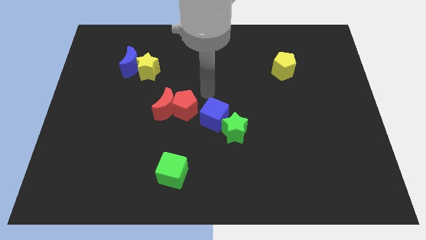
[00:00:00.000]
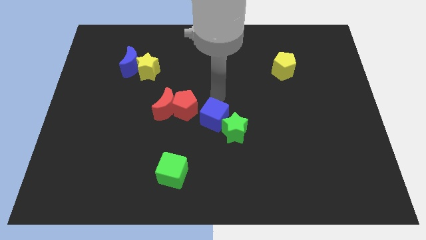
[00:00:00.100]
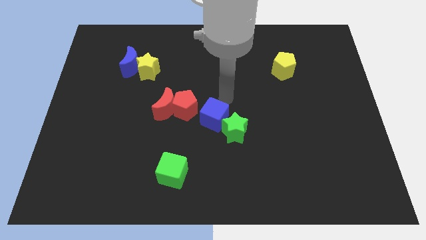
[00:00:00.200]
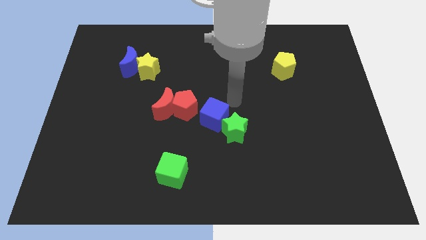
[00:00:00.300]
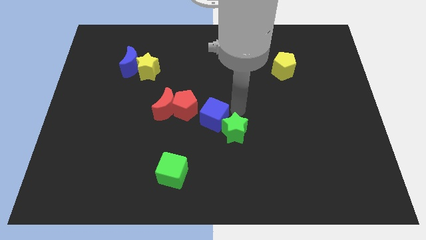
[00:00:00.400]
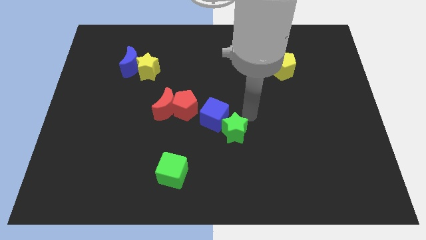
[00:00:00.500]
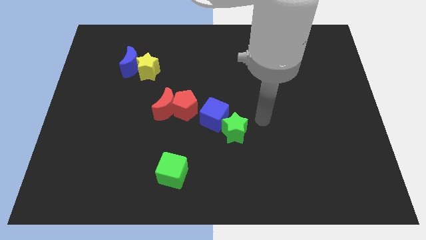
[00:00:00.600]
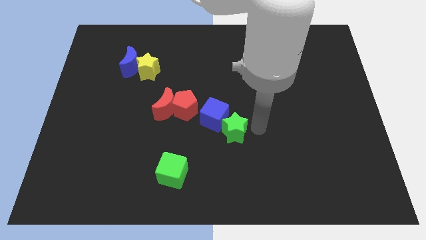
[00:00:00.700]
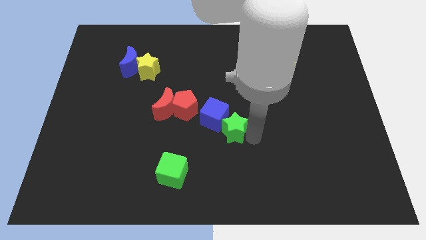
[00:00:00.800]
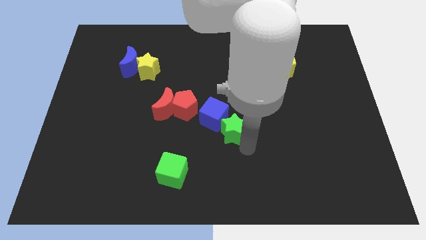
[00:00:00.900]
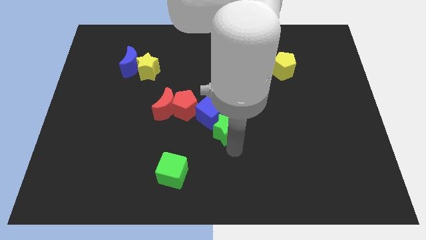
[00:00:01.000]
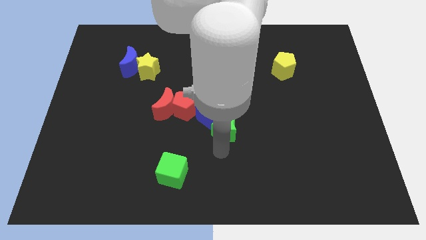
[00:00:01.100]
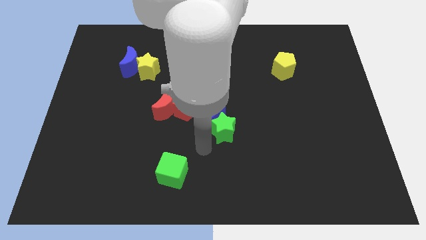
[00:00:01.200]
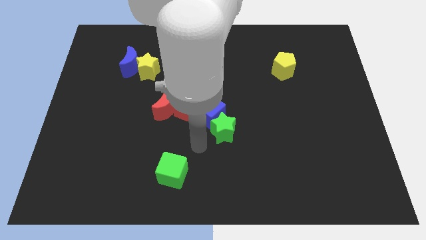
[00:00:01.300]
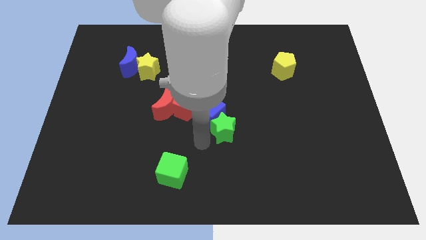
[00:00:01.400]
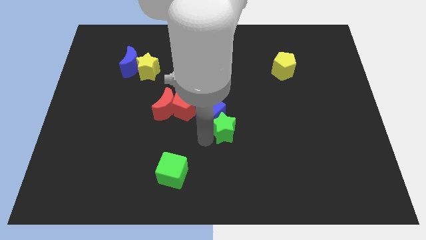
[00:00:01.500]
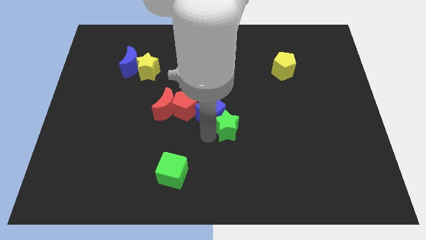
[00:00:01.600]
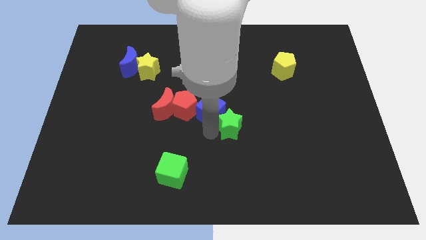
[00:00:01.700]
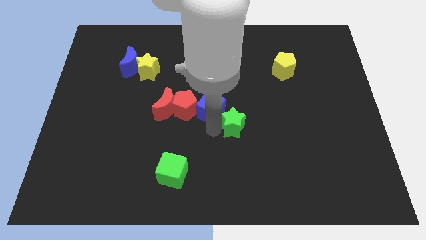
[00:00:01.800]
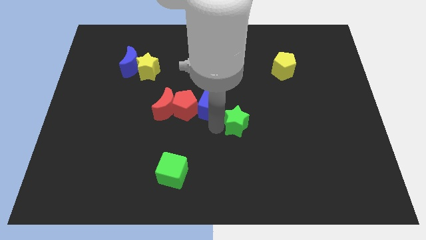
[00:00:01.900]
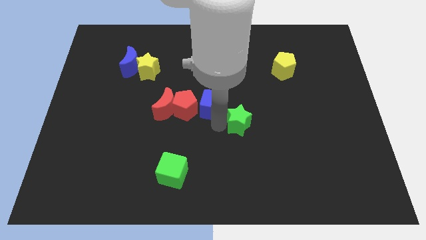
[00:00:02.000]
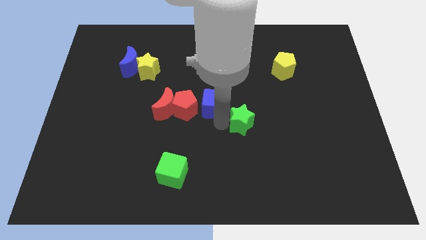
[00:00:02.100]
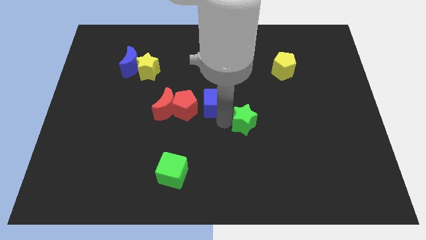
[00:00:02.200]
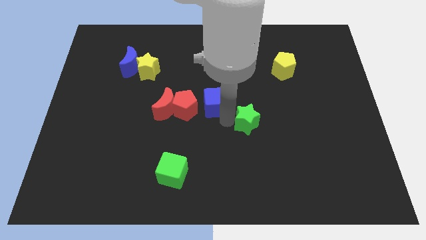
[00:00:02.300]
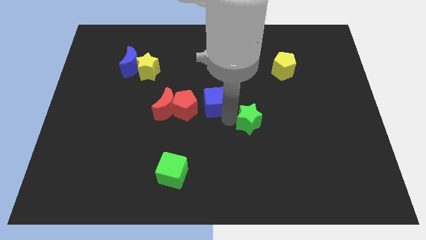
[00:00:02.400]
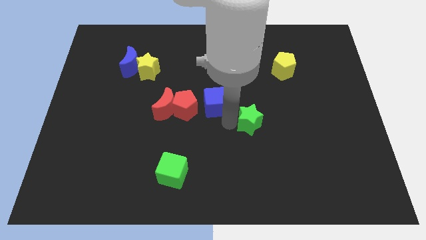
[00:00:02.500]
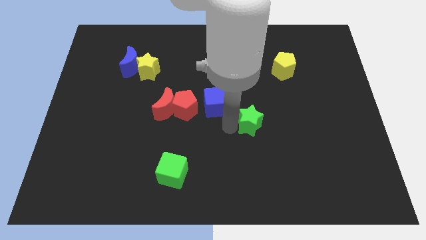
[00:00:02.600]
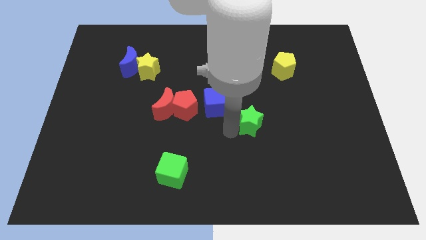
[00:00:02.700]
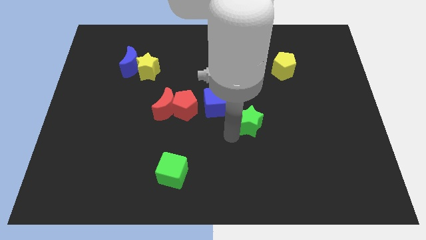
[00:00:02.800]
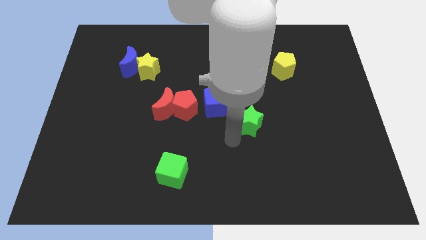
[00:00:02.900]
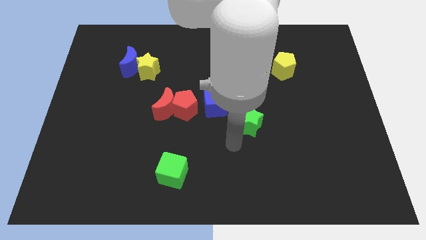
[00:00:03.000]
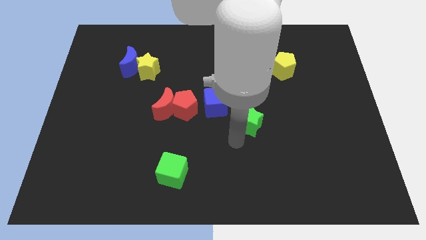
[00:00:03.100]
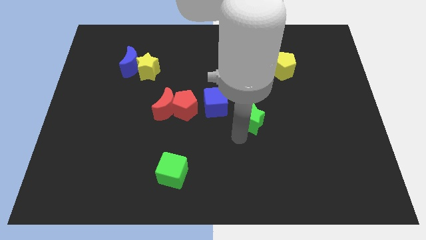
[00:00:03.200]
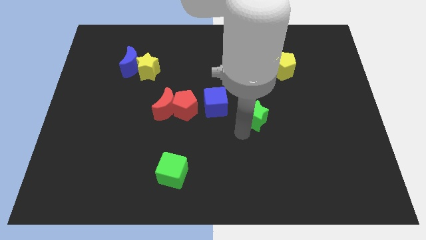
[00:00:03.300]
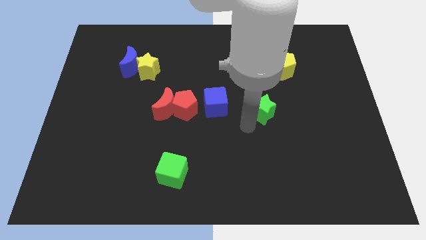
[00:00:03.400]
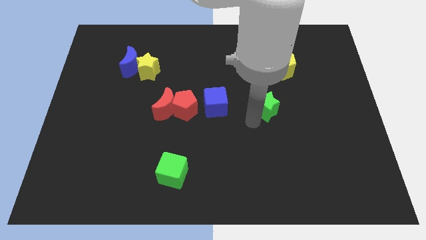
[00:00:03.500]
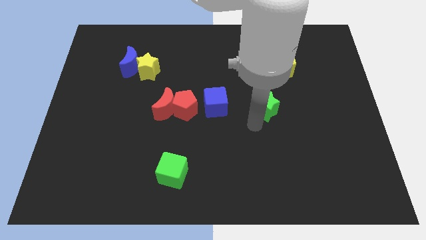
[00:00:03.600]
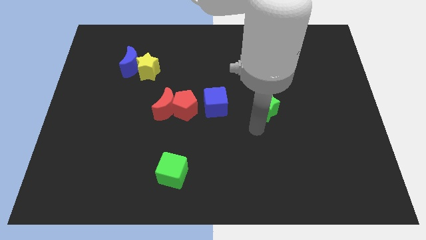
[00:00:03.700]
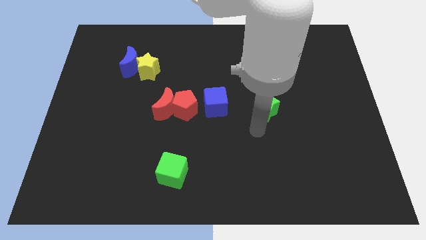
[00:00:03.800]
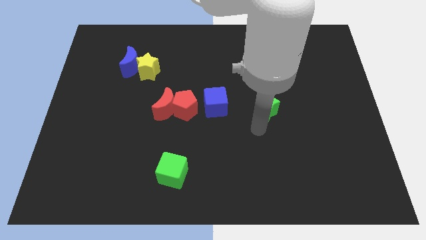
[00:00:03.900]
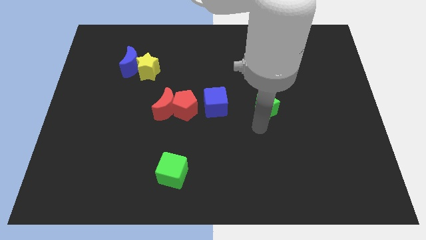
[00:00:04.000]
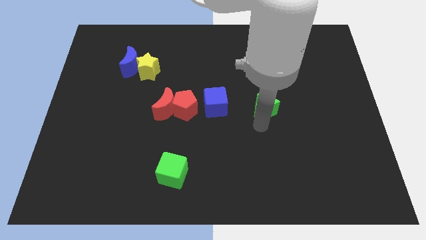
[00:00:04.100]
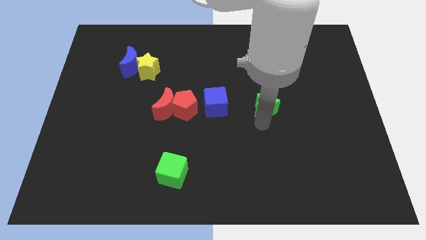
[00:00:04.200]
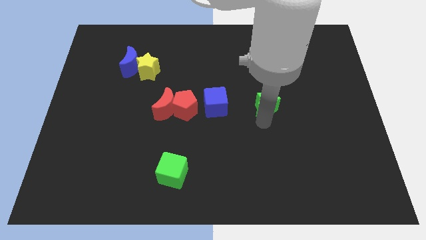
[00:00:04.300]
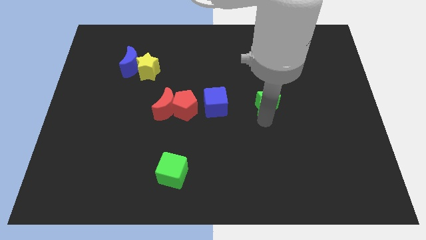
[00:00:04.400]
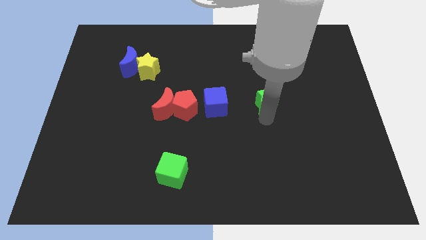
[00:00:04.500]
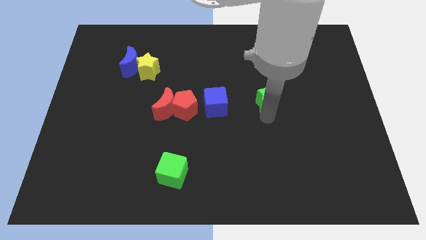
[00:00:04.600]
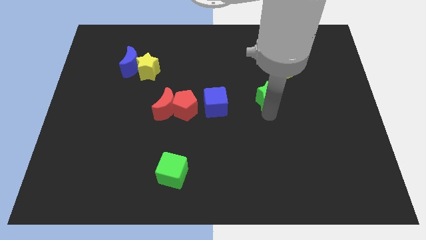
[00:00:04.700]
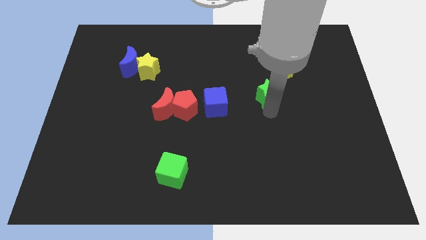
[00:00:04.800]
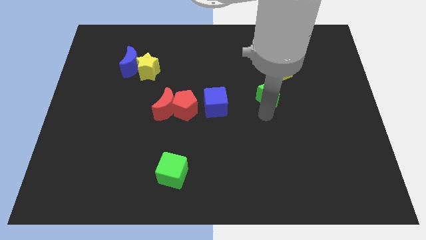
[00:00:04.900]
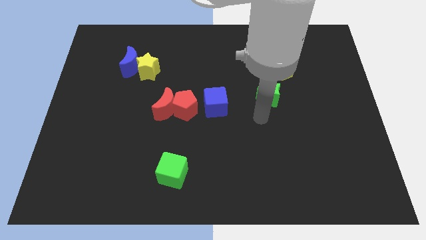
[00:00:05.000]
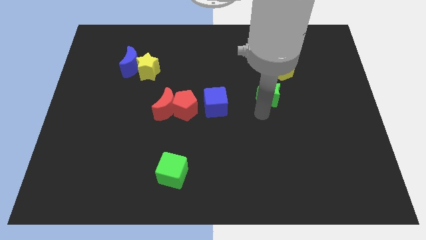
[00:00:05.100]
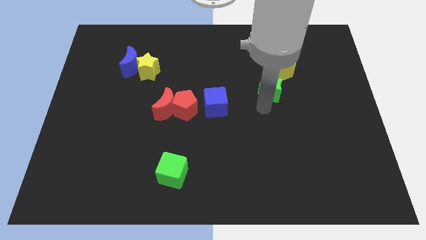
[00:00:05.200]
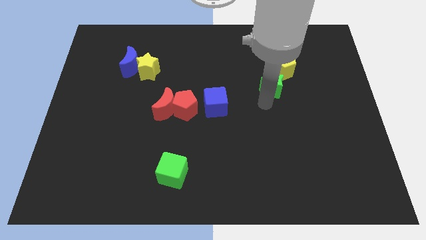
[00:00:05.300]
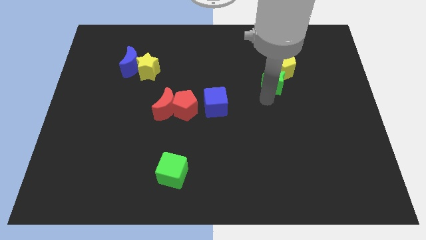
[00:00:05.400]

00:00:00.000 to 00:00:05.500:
put the green star next to the yellow pentagon

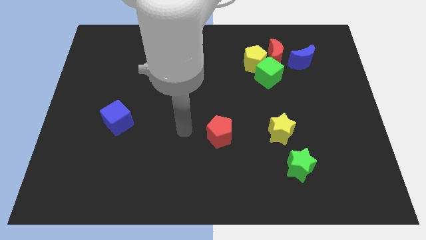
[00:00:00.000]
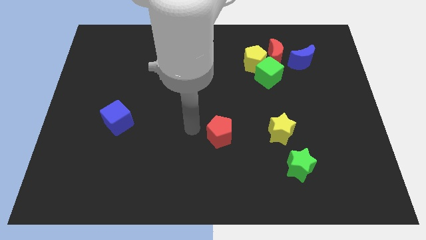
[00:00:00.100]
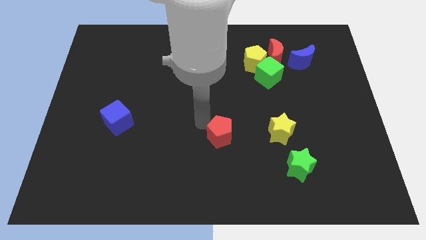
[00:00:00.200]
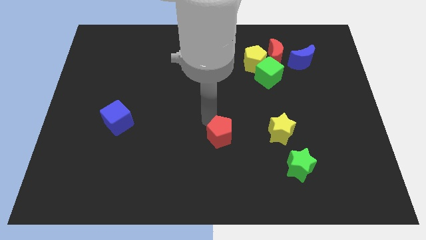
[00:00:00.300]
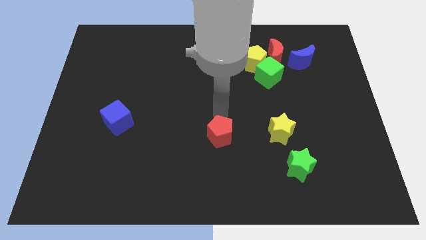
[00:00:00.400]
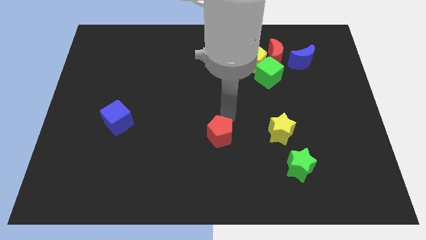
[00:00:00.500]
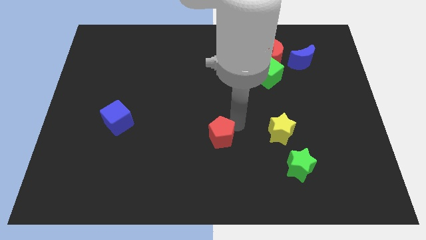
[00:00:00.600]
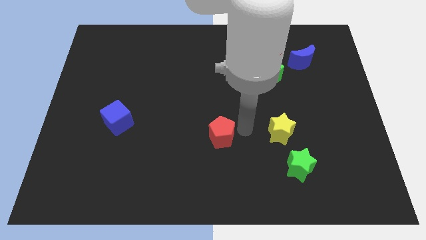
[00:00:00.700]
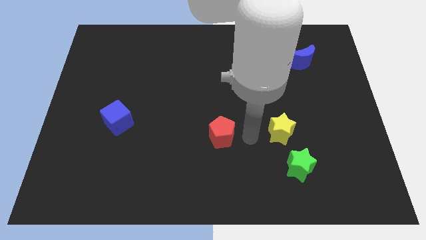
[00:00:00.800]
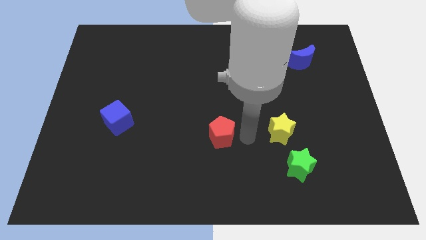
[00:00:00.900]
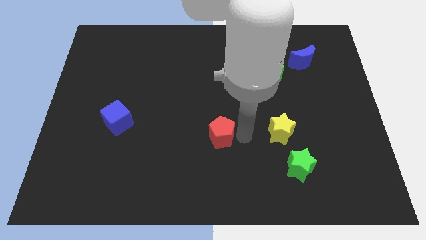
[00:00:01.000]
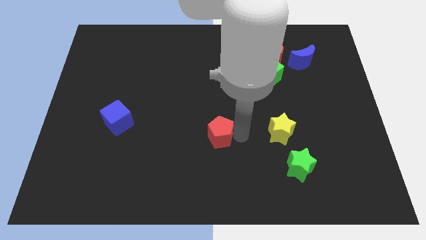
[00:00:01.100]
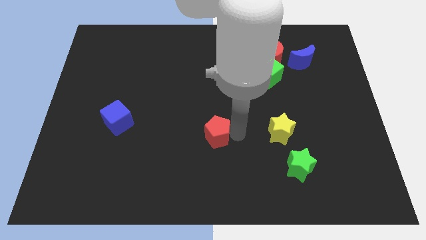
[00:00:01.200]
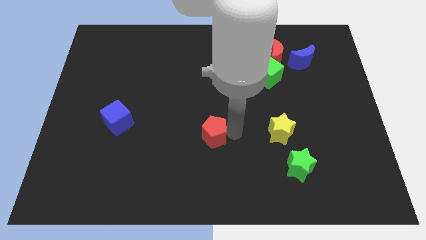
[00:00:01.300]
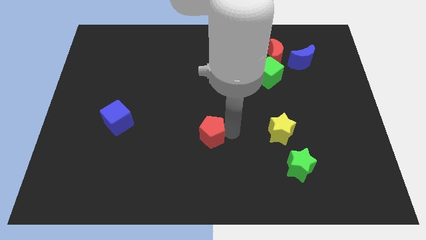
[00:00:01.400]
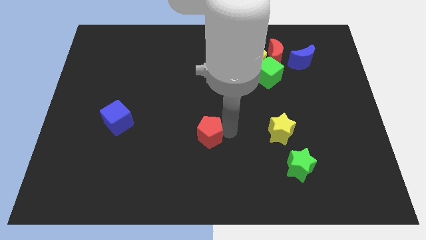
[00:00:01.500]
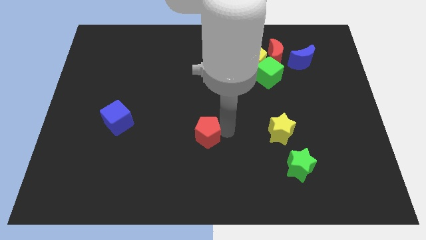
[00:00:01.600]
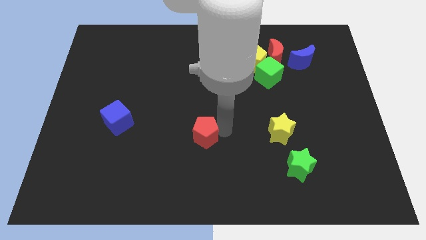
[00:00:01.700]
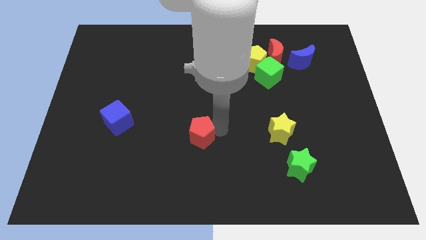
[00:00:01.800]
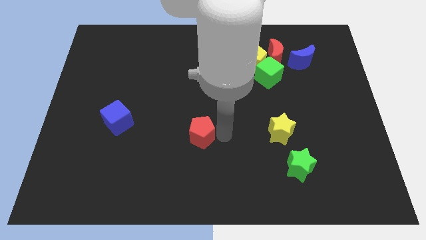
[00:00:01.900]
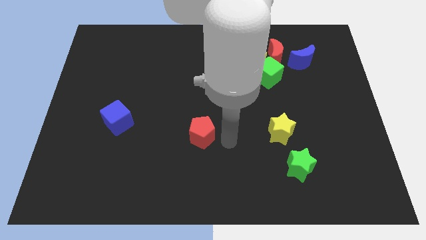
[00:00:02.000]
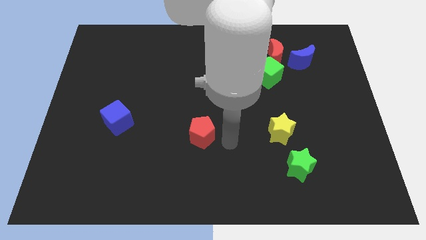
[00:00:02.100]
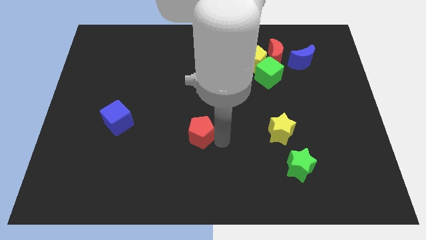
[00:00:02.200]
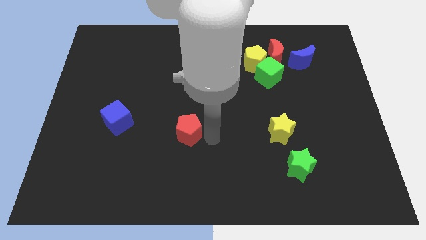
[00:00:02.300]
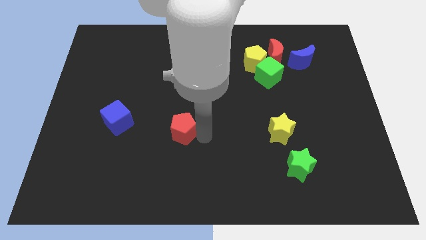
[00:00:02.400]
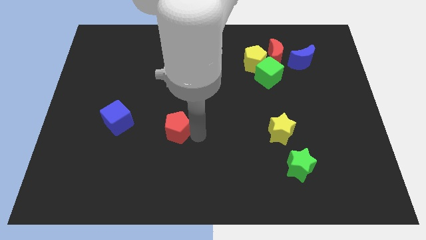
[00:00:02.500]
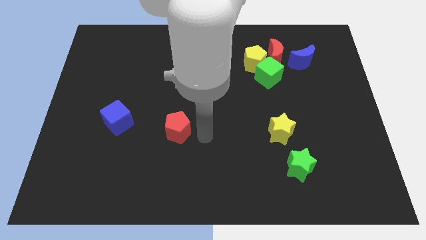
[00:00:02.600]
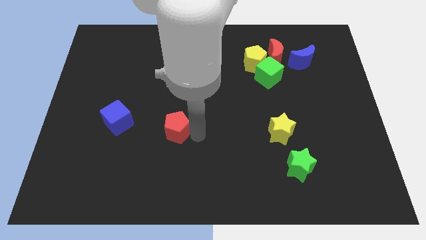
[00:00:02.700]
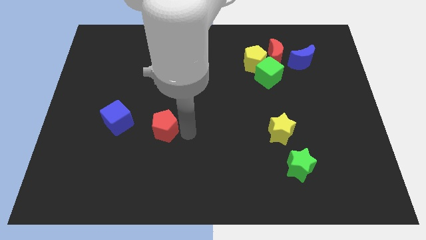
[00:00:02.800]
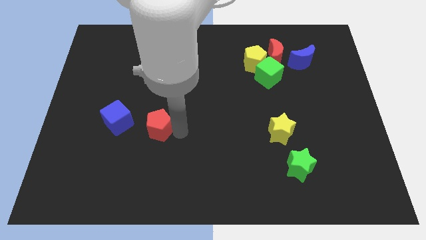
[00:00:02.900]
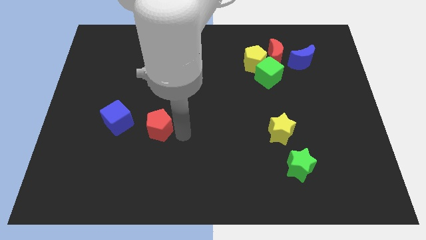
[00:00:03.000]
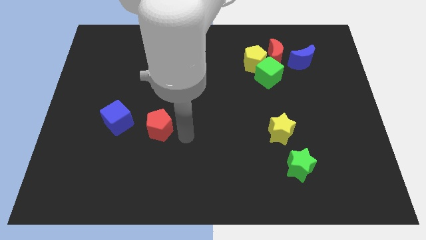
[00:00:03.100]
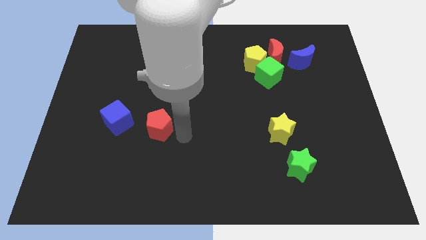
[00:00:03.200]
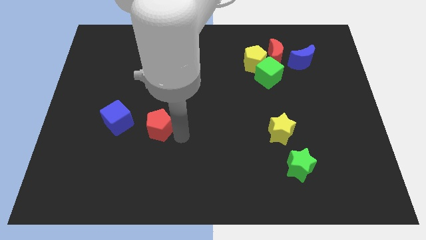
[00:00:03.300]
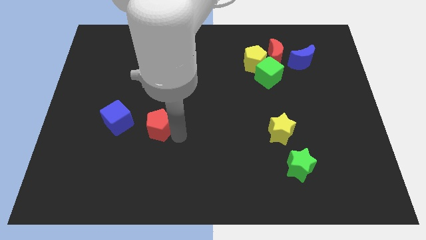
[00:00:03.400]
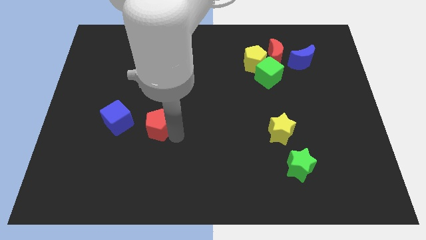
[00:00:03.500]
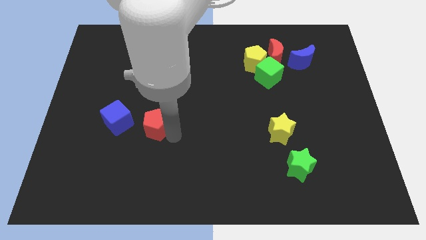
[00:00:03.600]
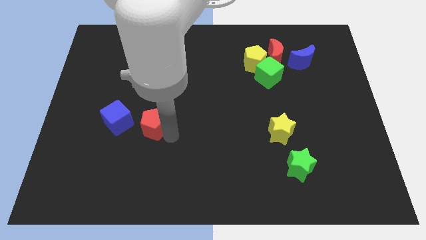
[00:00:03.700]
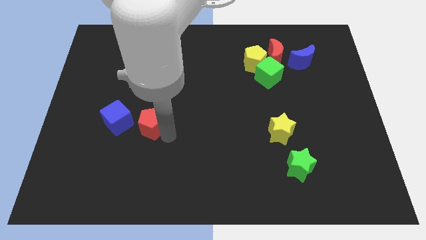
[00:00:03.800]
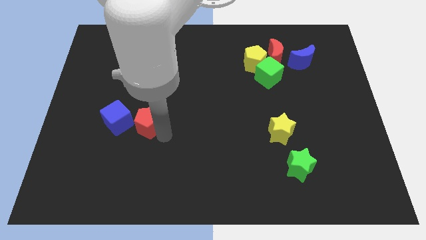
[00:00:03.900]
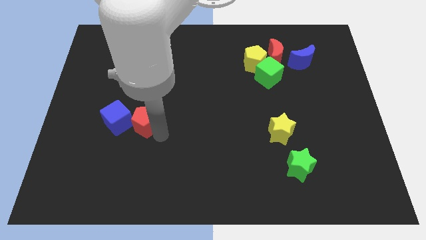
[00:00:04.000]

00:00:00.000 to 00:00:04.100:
slide the red pentagon towards the blue cube
